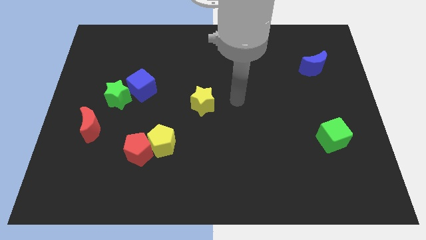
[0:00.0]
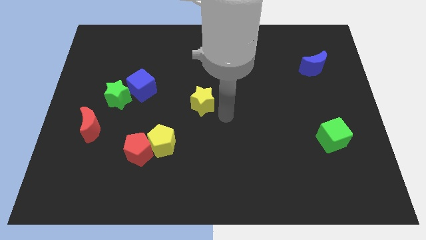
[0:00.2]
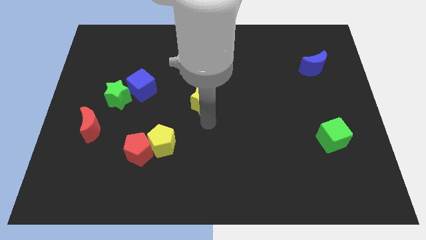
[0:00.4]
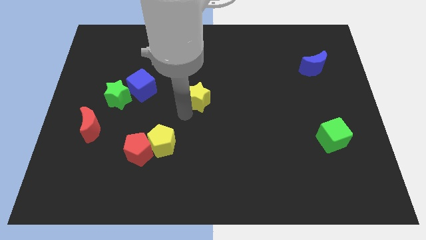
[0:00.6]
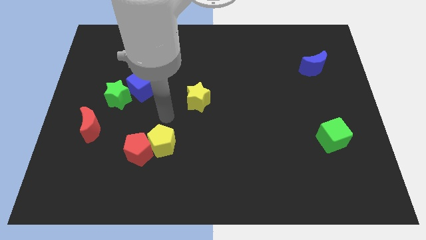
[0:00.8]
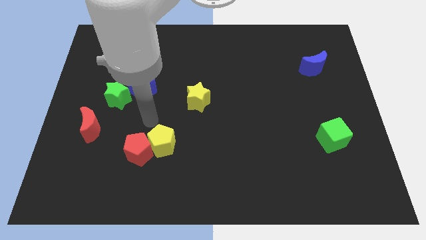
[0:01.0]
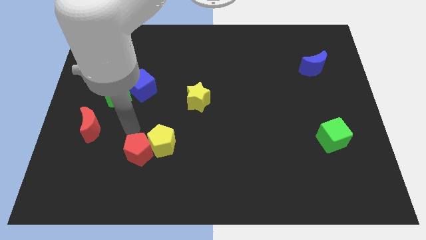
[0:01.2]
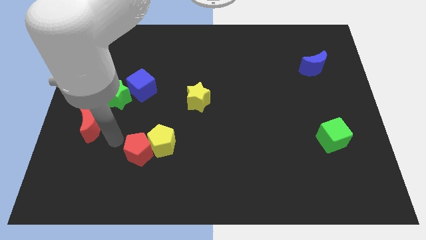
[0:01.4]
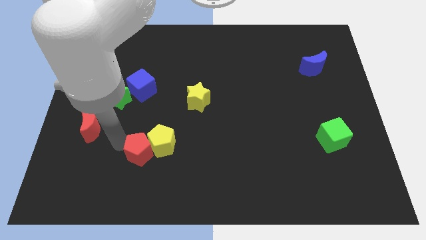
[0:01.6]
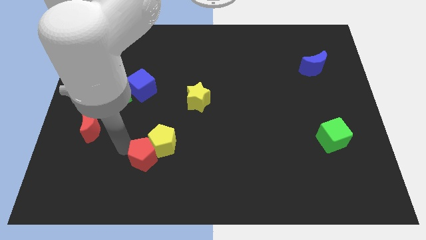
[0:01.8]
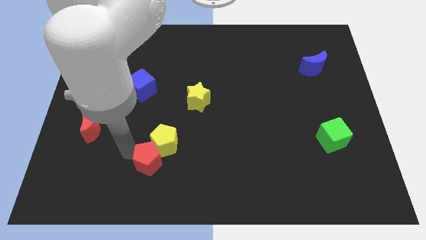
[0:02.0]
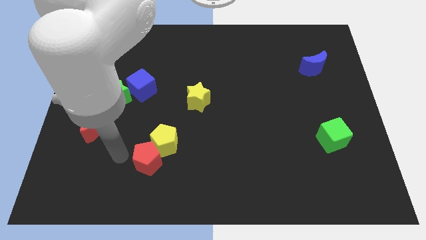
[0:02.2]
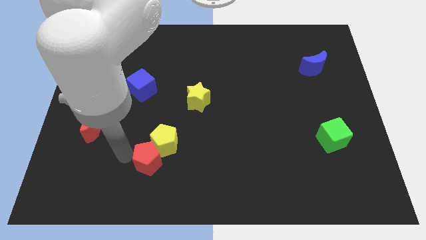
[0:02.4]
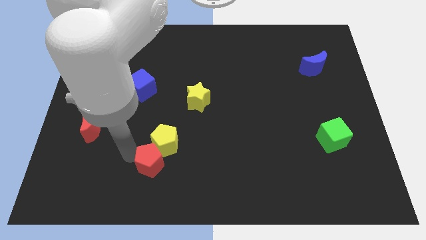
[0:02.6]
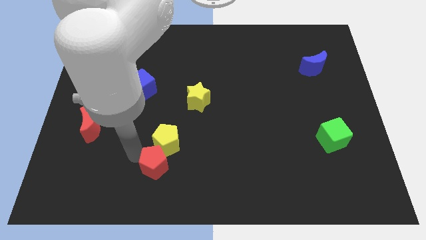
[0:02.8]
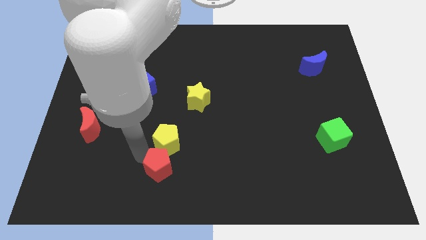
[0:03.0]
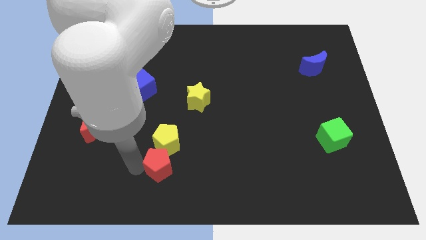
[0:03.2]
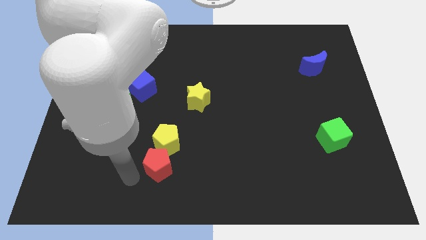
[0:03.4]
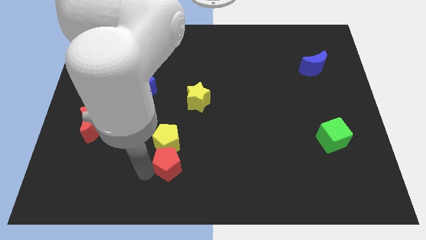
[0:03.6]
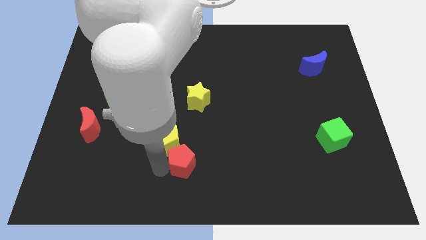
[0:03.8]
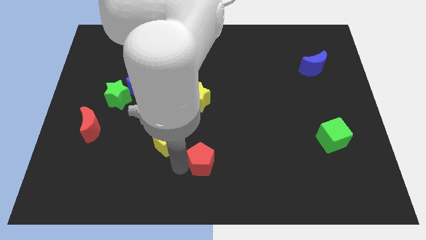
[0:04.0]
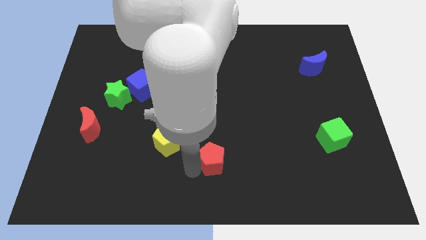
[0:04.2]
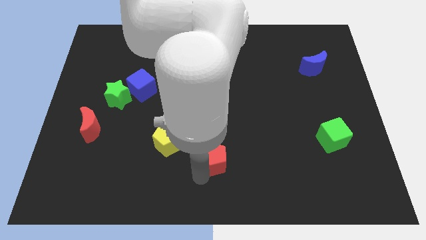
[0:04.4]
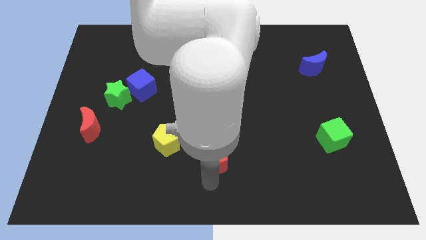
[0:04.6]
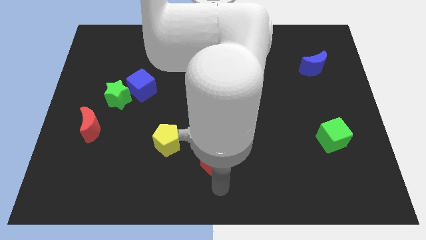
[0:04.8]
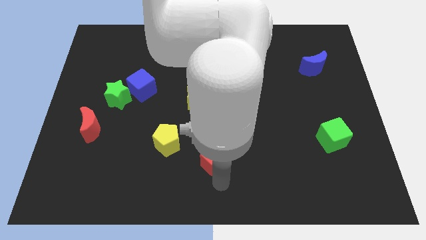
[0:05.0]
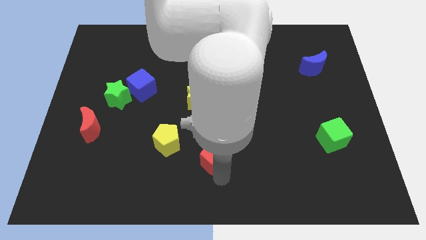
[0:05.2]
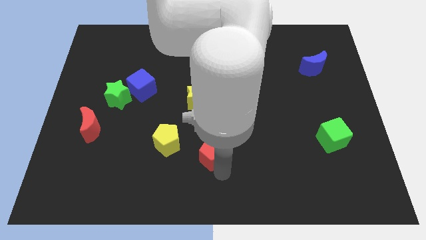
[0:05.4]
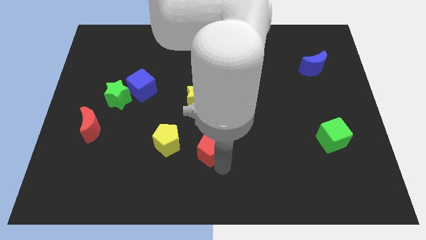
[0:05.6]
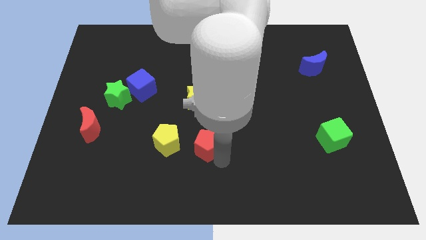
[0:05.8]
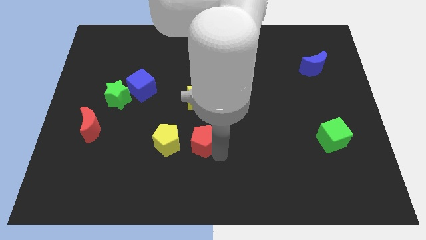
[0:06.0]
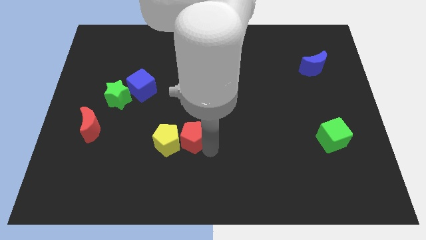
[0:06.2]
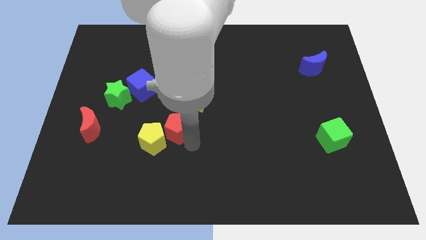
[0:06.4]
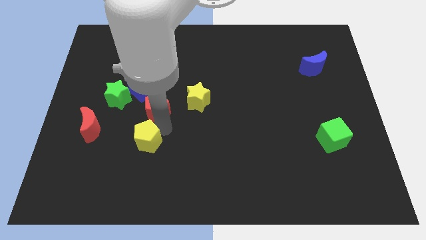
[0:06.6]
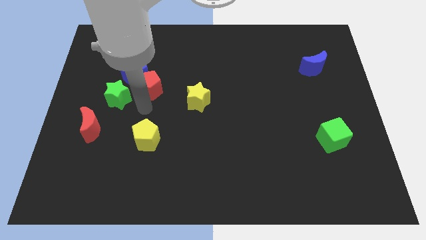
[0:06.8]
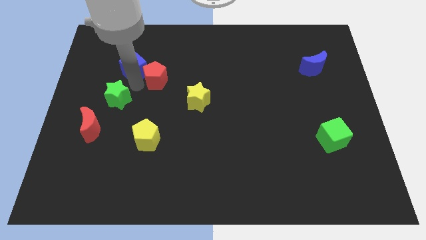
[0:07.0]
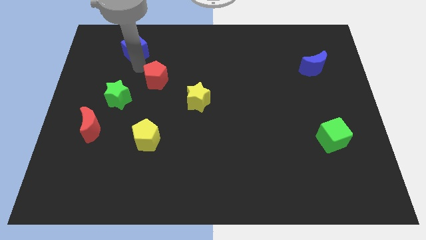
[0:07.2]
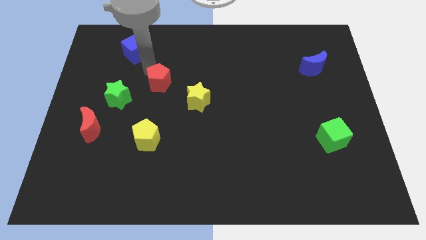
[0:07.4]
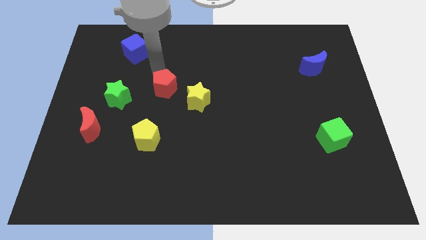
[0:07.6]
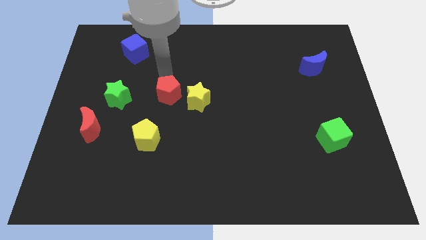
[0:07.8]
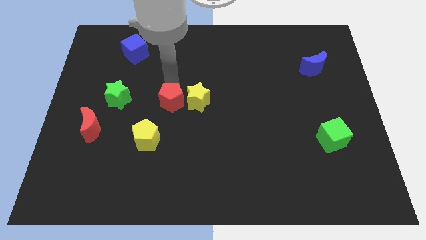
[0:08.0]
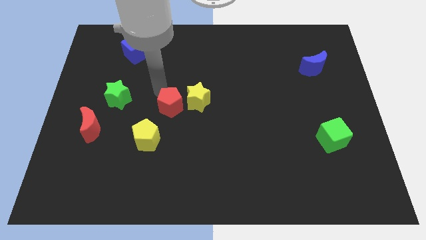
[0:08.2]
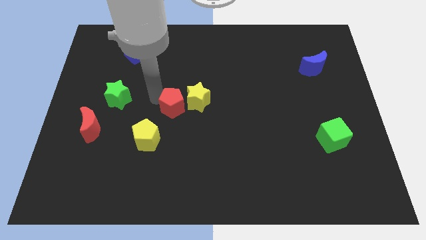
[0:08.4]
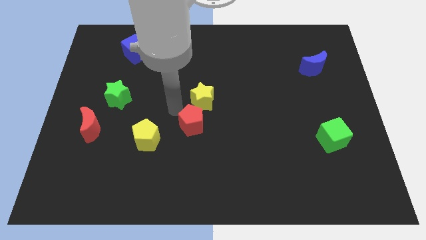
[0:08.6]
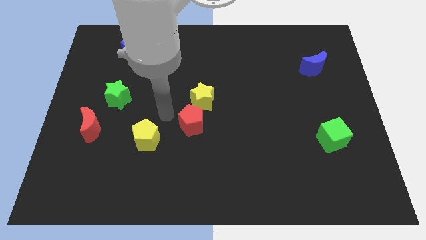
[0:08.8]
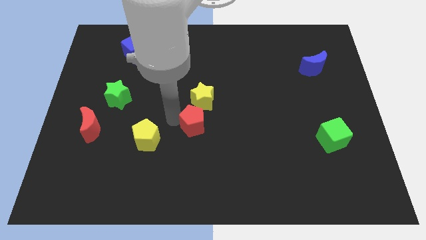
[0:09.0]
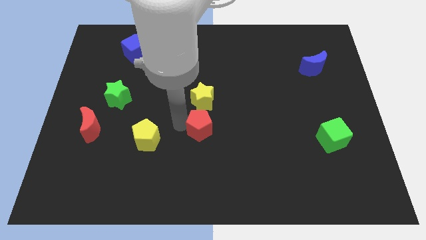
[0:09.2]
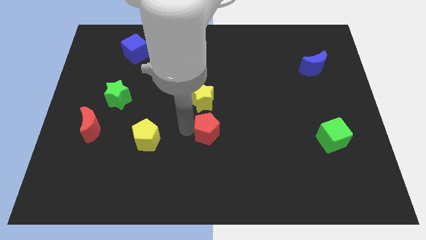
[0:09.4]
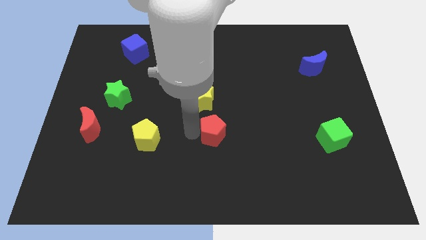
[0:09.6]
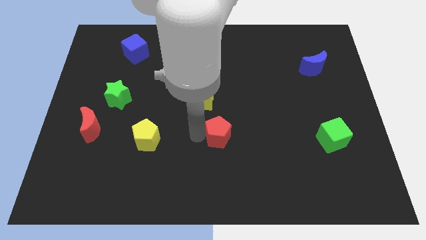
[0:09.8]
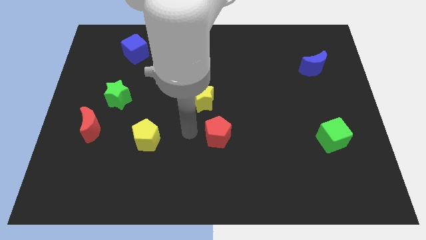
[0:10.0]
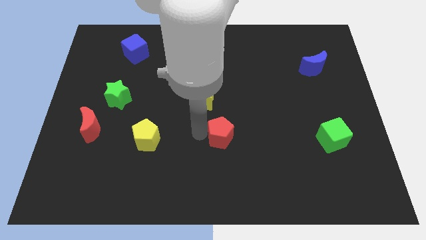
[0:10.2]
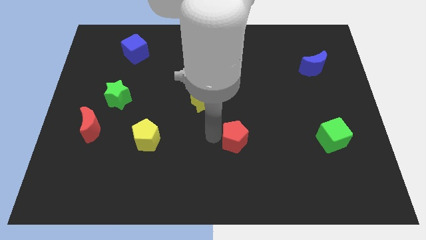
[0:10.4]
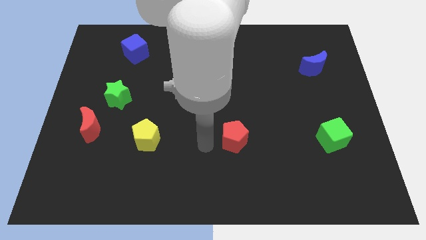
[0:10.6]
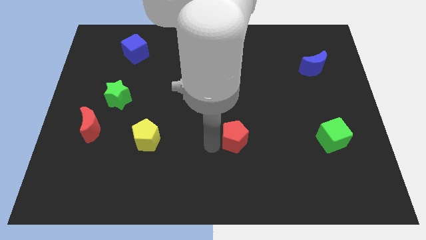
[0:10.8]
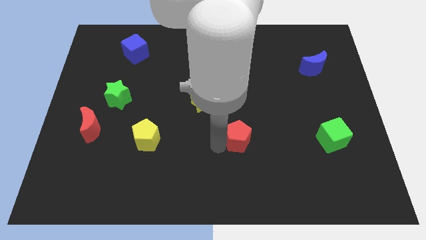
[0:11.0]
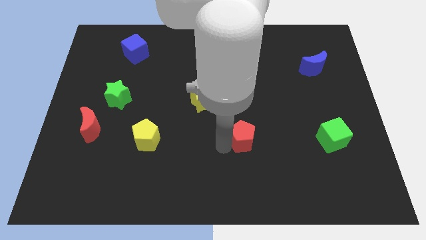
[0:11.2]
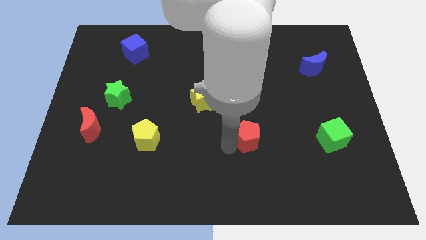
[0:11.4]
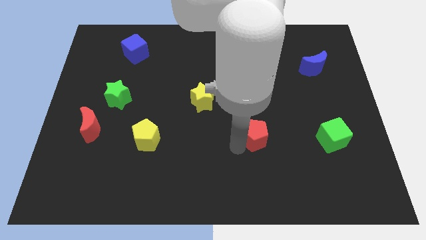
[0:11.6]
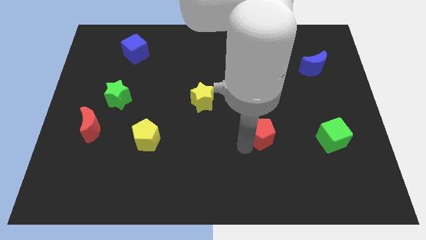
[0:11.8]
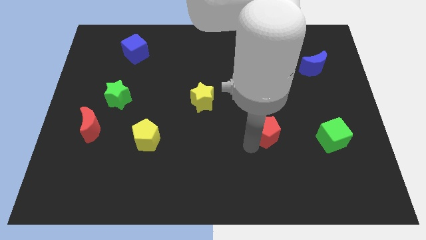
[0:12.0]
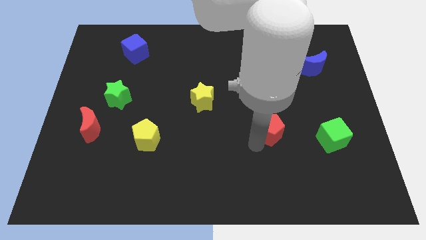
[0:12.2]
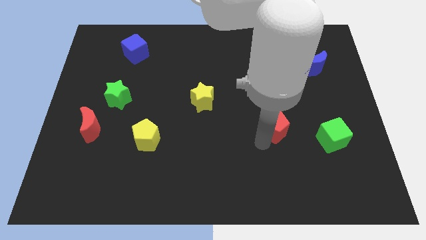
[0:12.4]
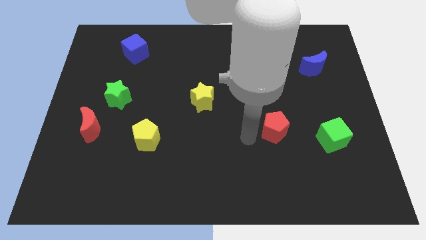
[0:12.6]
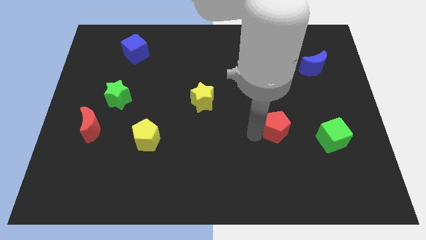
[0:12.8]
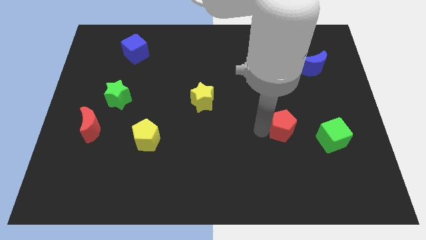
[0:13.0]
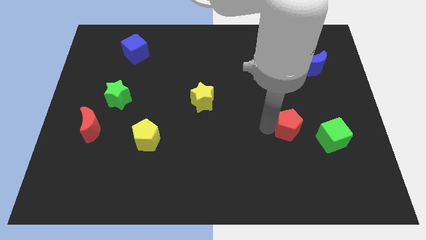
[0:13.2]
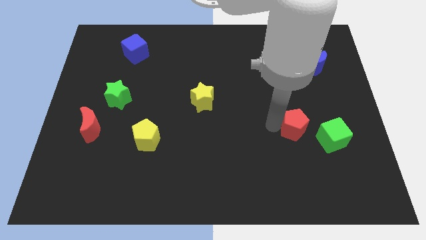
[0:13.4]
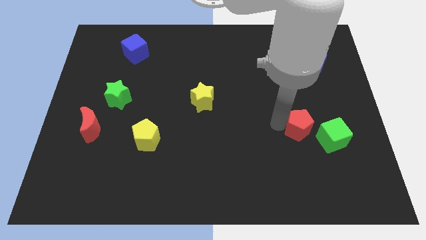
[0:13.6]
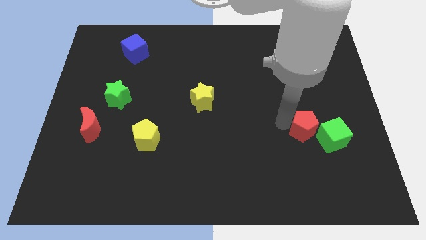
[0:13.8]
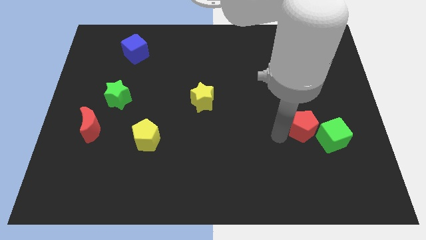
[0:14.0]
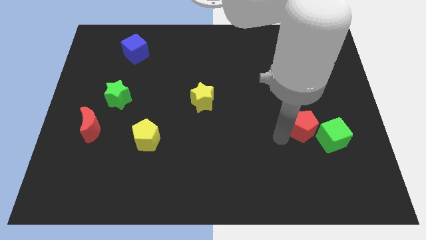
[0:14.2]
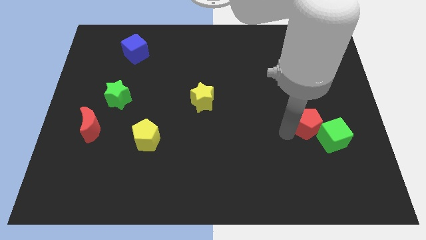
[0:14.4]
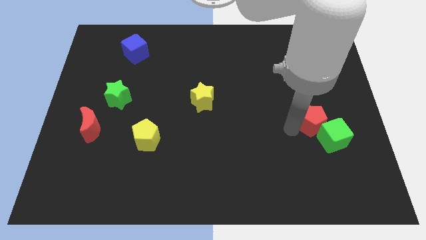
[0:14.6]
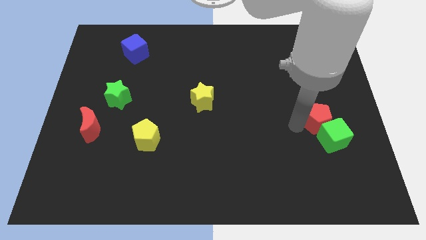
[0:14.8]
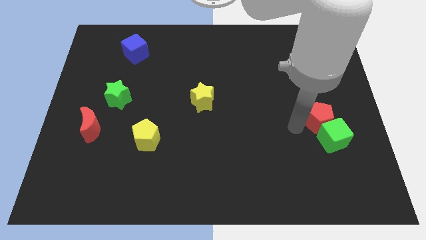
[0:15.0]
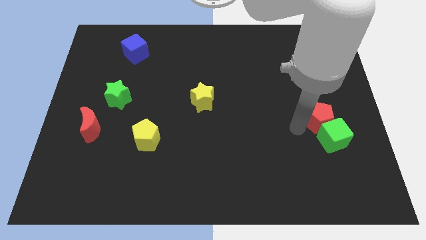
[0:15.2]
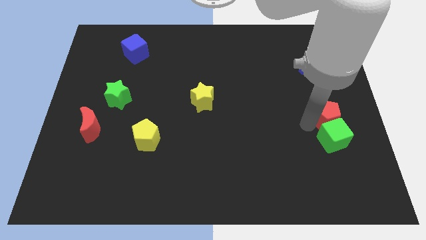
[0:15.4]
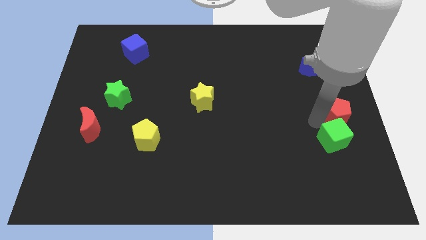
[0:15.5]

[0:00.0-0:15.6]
move the red pentagon to the right side of the board
